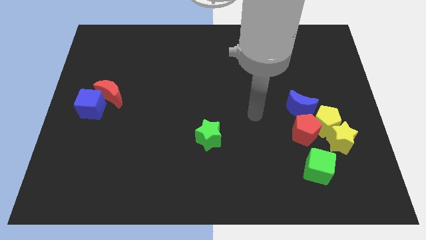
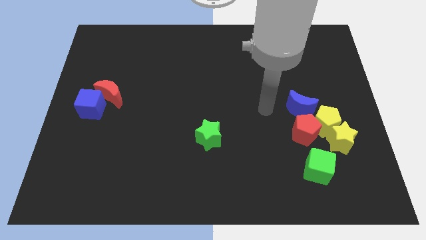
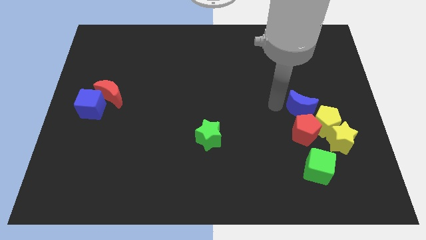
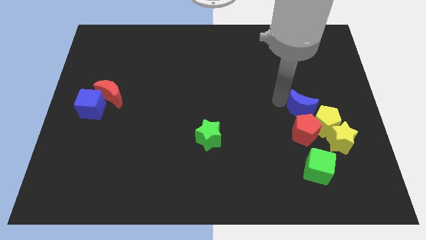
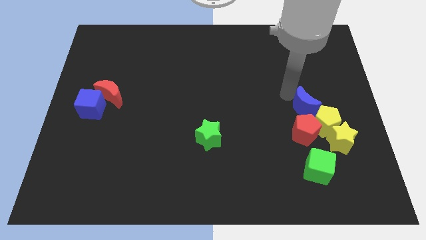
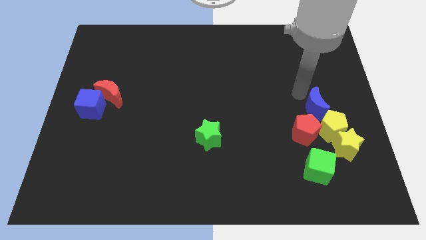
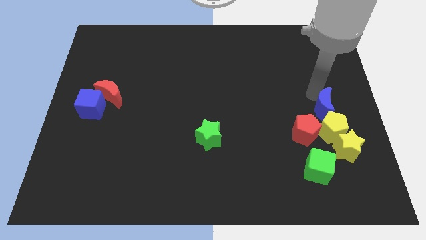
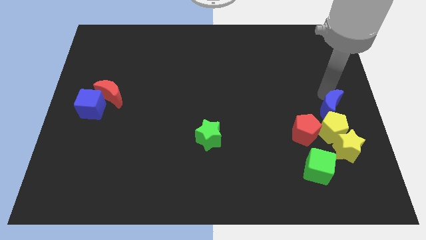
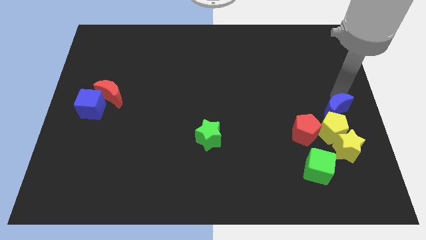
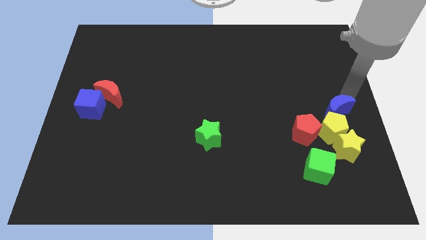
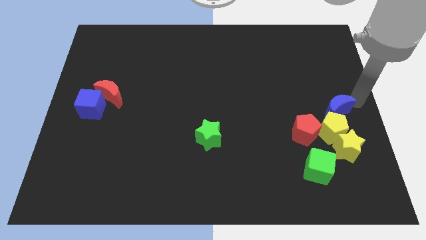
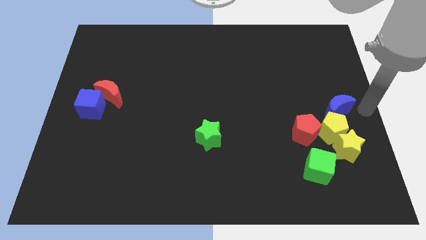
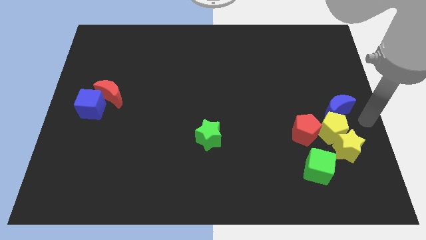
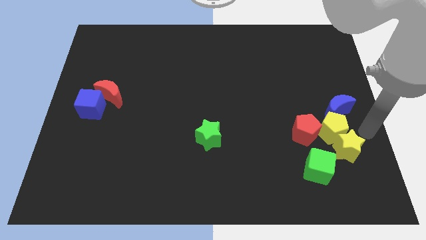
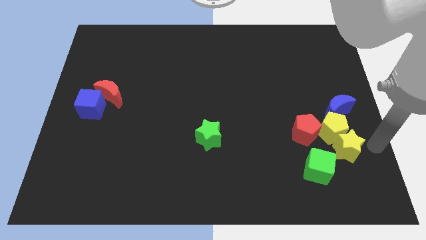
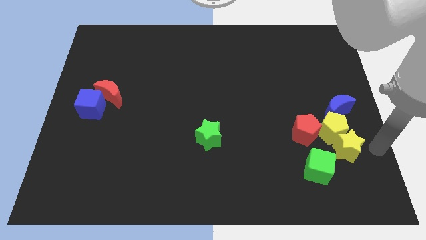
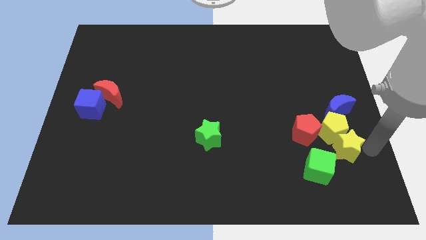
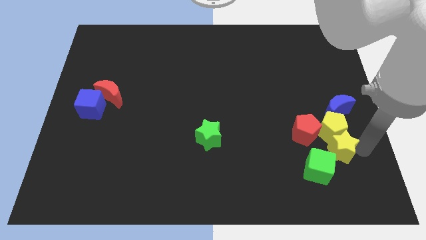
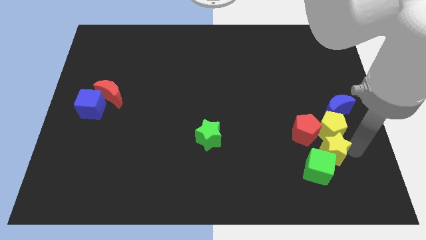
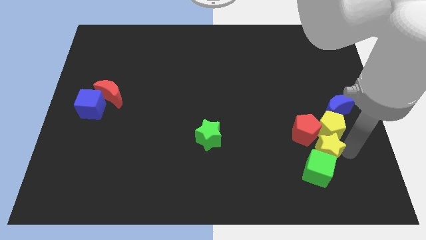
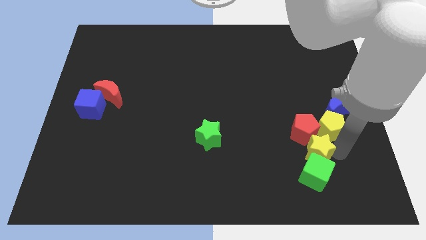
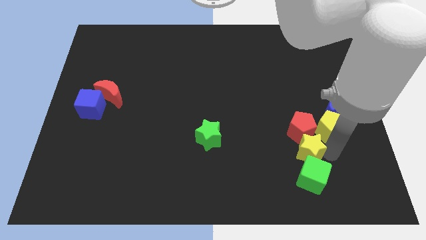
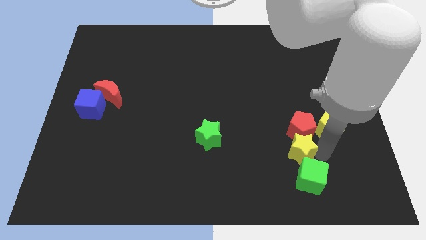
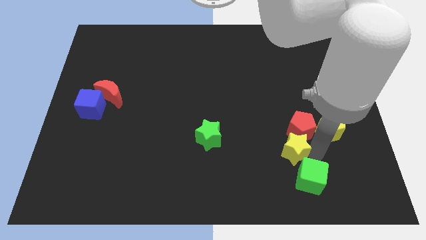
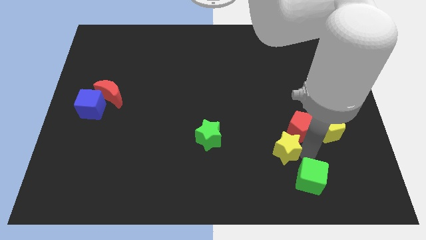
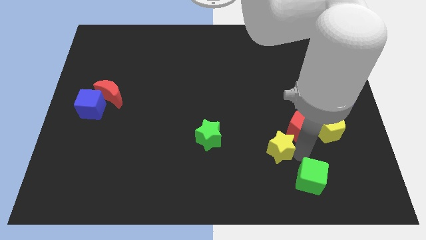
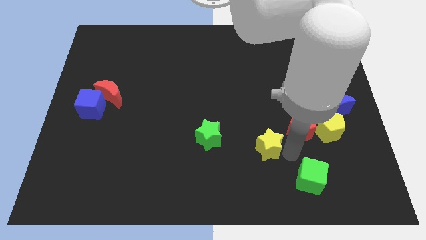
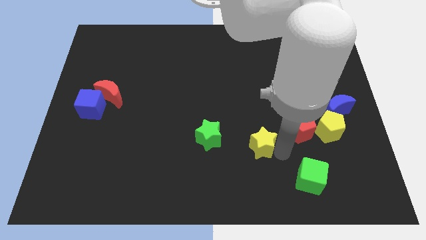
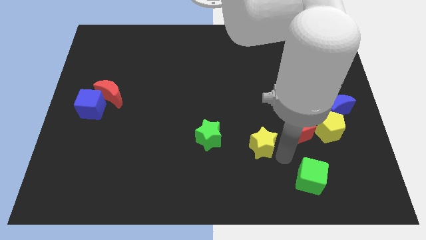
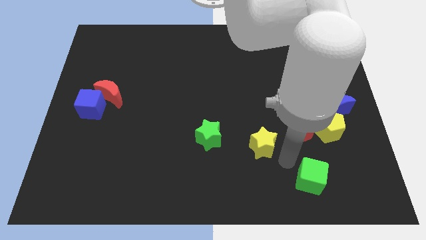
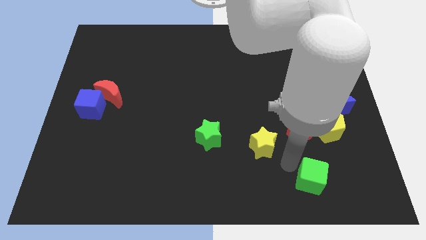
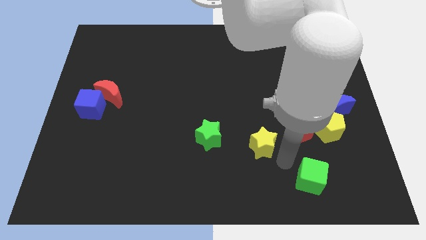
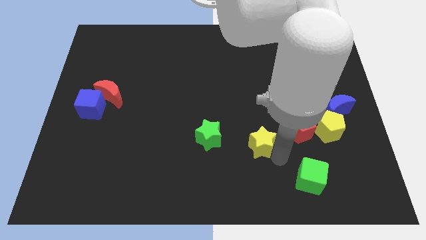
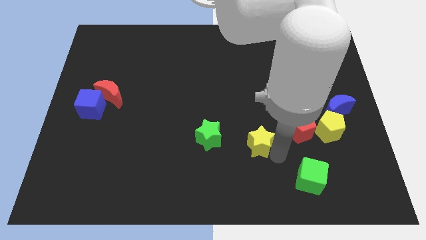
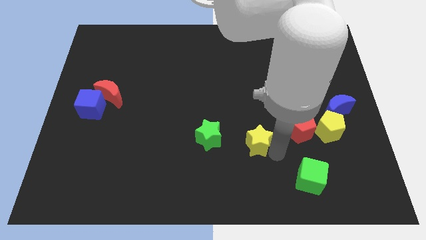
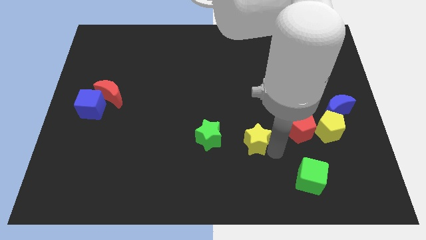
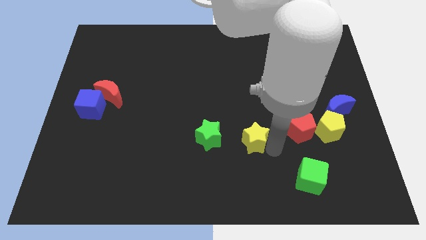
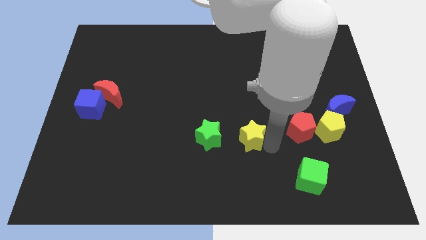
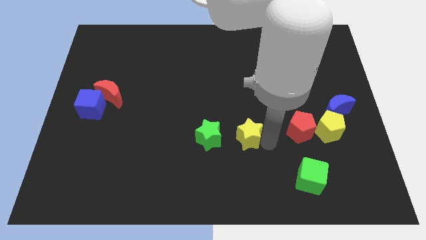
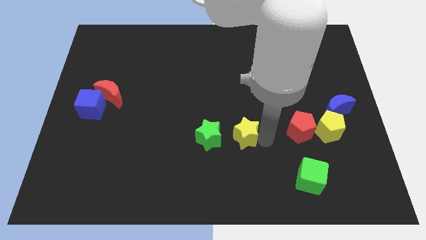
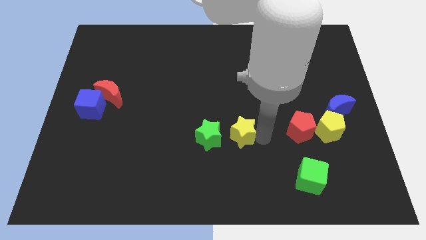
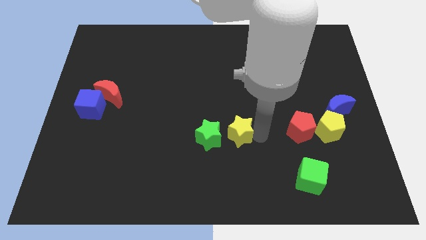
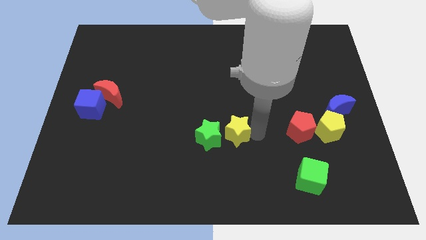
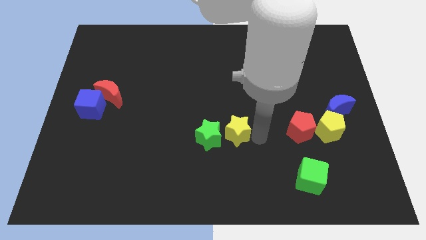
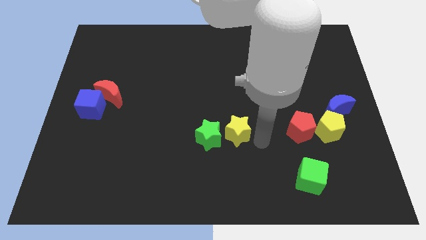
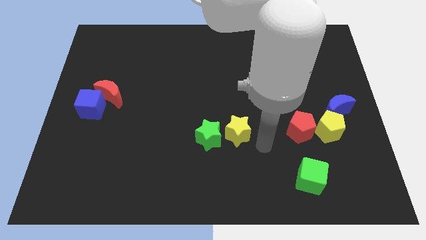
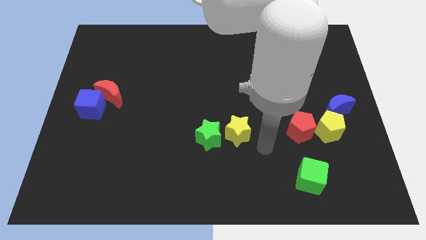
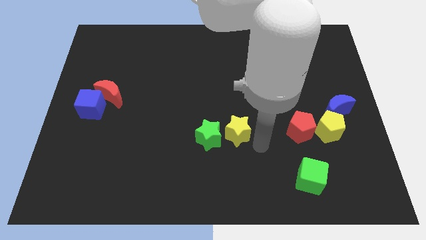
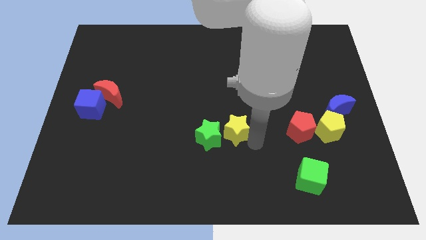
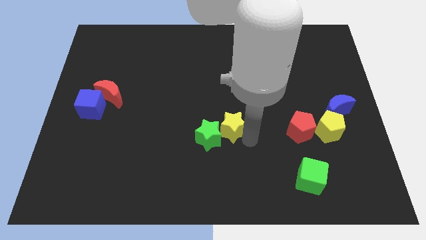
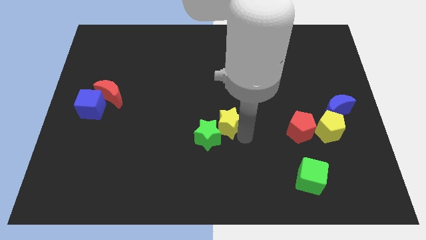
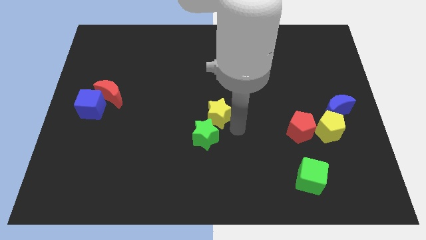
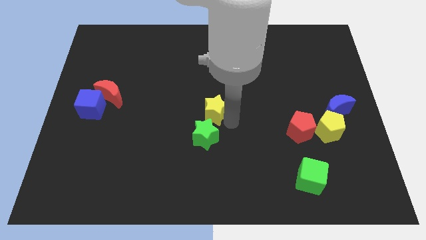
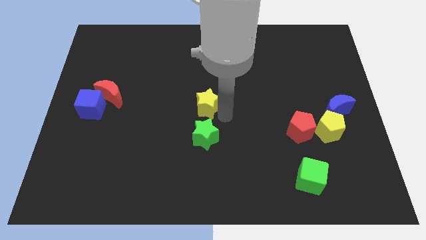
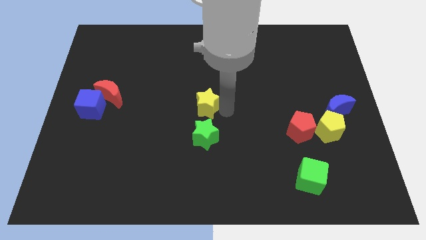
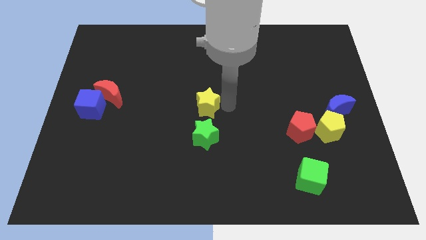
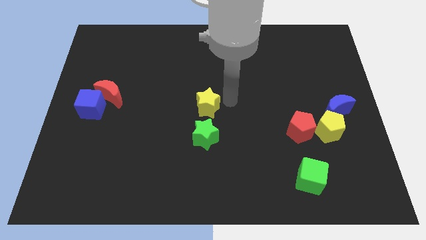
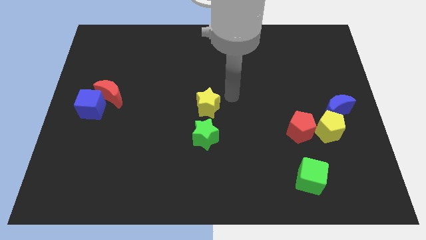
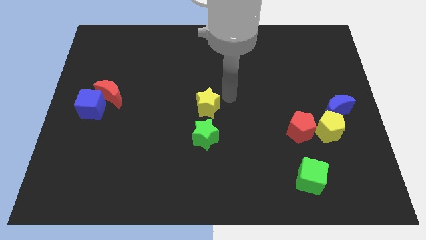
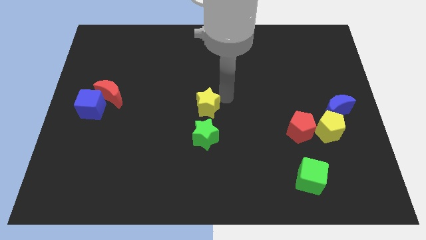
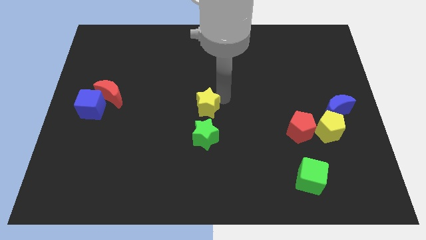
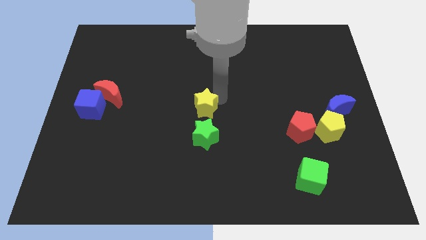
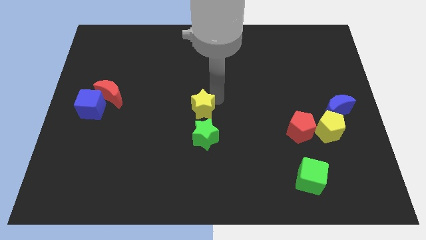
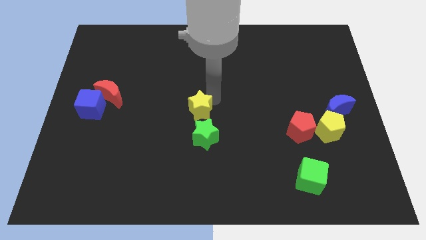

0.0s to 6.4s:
push the yellow star to the top left side of the green star
